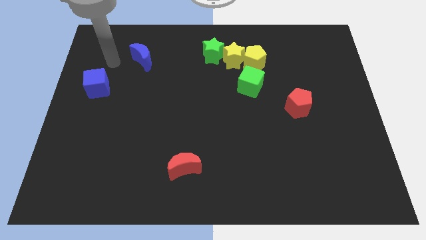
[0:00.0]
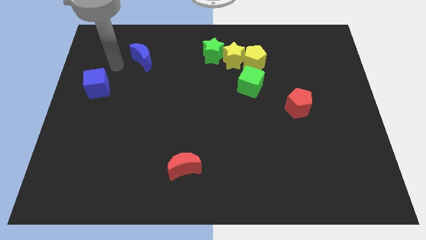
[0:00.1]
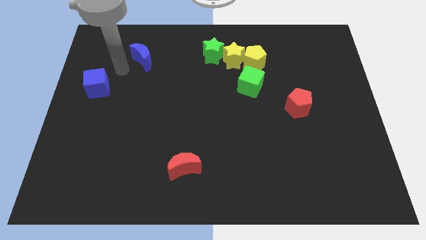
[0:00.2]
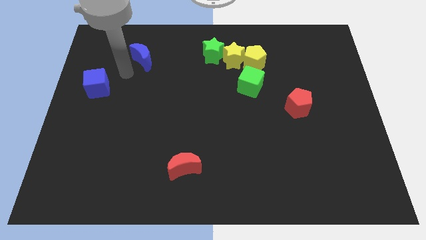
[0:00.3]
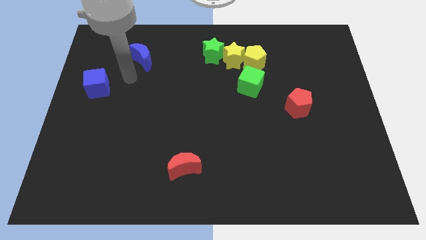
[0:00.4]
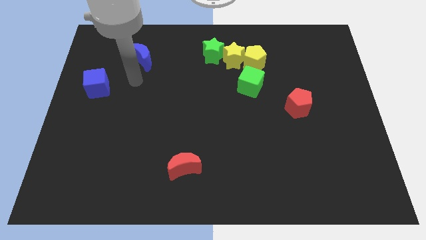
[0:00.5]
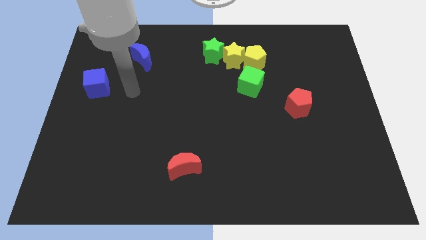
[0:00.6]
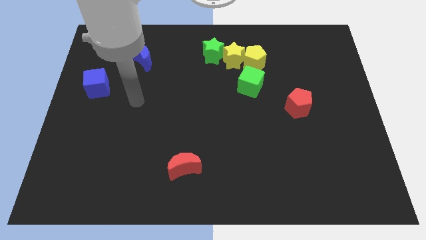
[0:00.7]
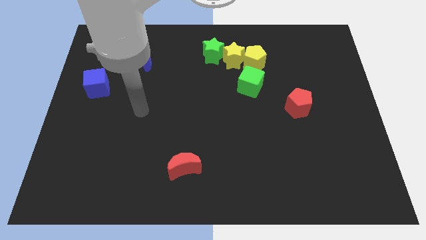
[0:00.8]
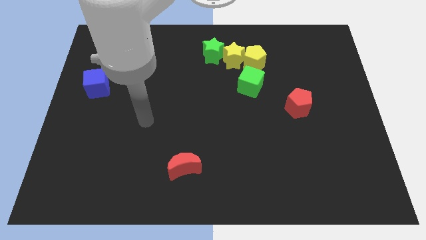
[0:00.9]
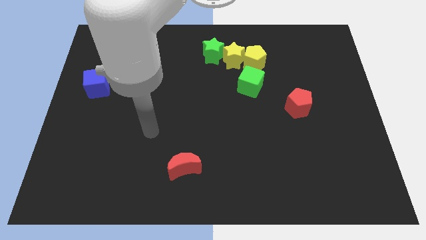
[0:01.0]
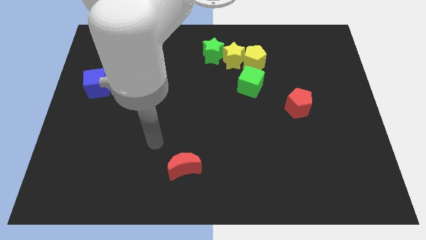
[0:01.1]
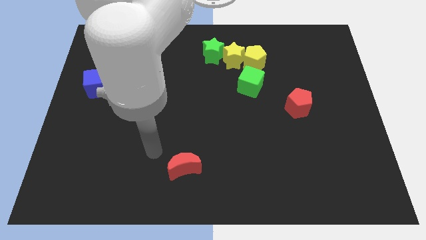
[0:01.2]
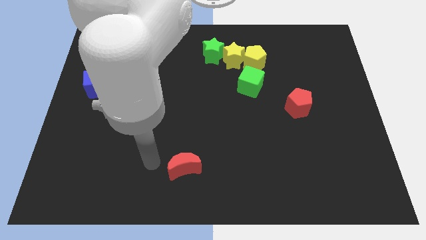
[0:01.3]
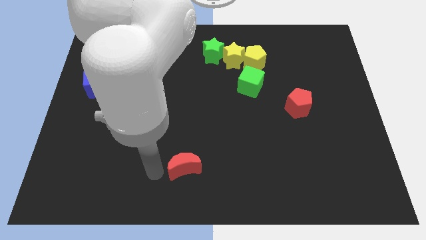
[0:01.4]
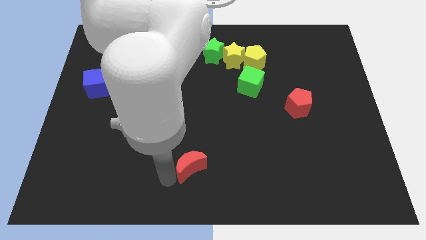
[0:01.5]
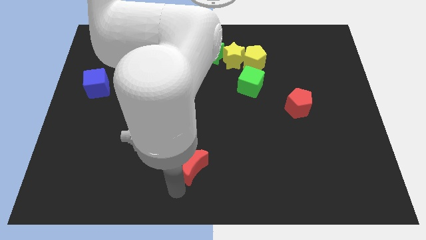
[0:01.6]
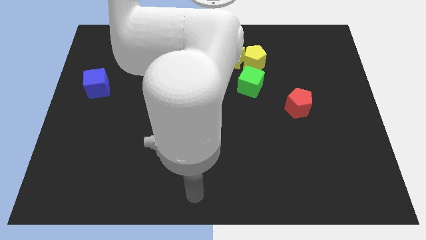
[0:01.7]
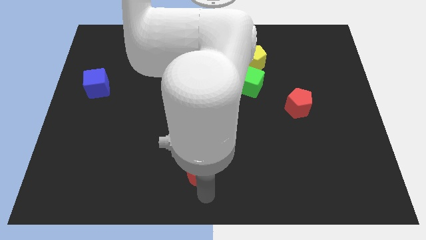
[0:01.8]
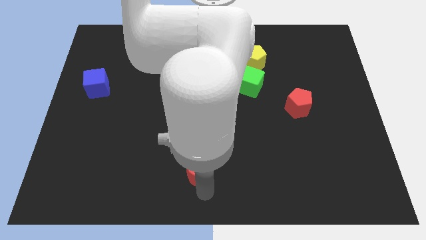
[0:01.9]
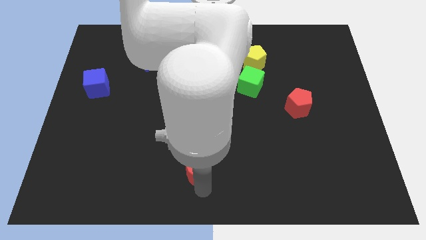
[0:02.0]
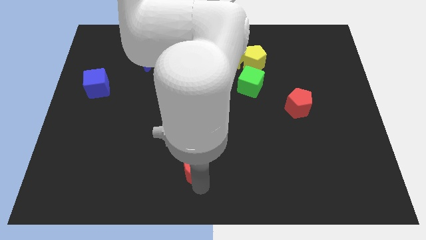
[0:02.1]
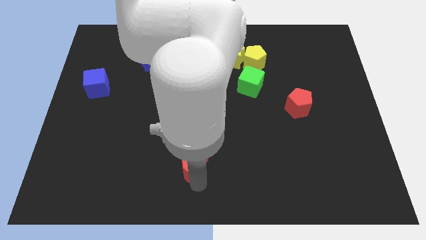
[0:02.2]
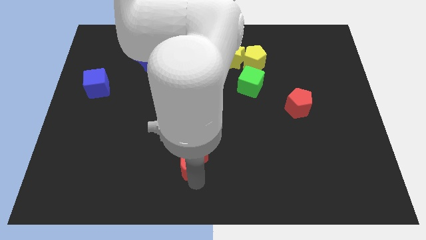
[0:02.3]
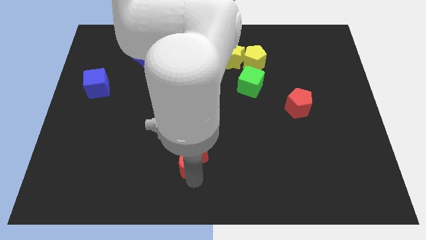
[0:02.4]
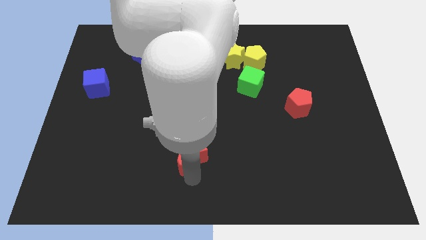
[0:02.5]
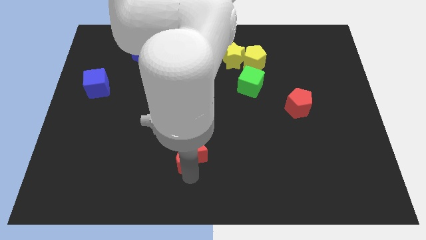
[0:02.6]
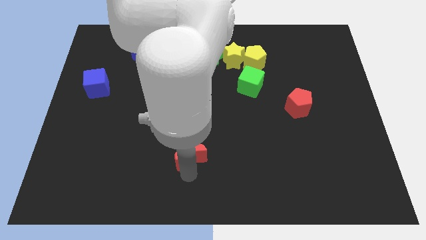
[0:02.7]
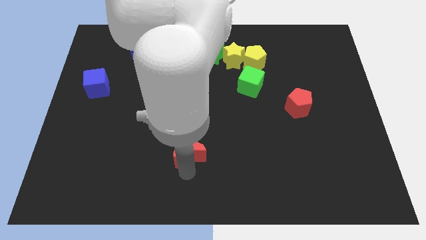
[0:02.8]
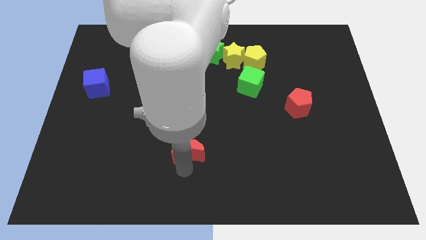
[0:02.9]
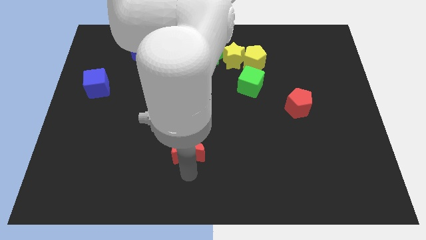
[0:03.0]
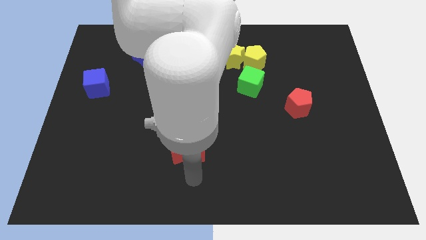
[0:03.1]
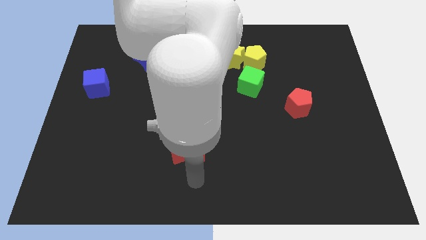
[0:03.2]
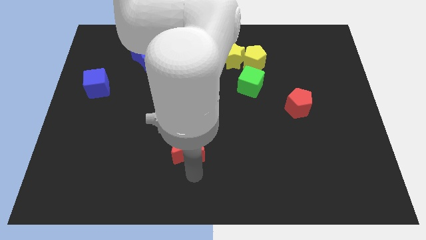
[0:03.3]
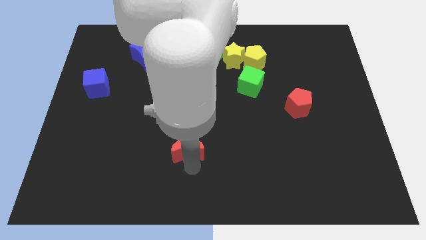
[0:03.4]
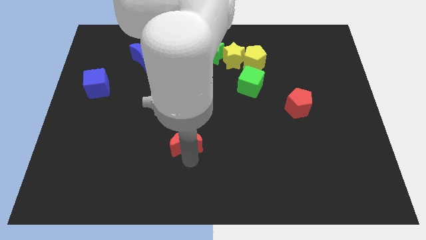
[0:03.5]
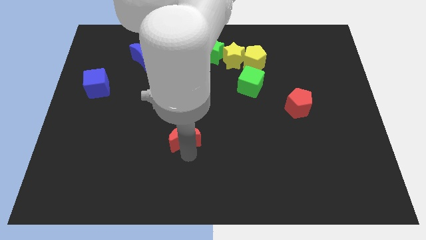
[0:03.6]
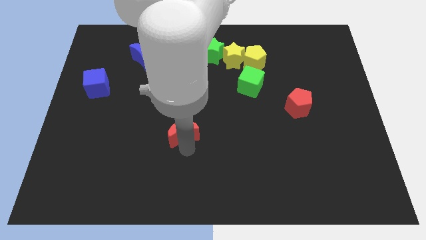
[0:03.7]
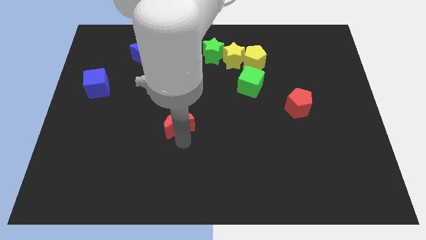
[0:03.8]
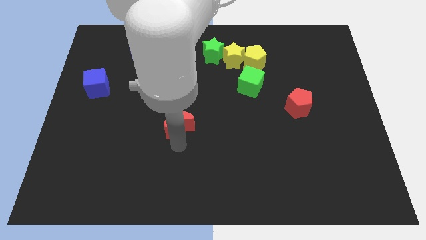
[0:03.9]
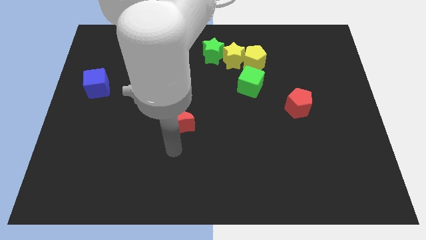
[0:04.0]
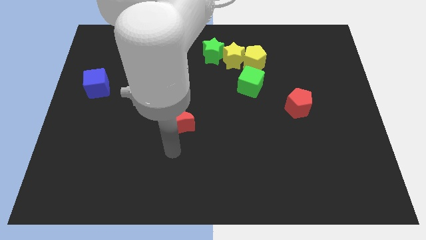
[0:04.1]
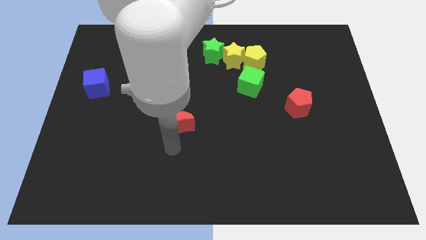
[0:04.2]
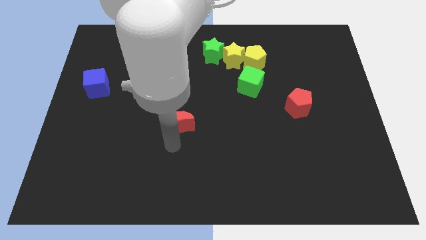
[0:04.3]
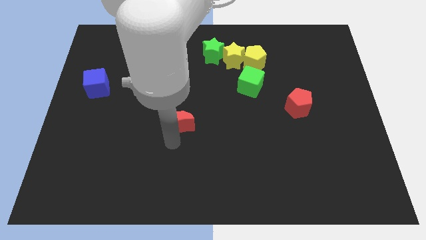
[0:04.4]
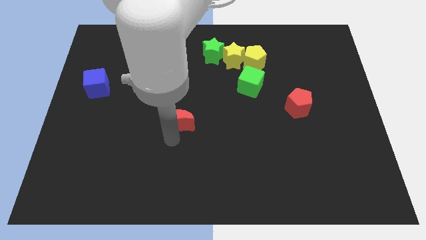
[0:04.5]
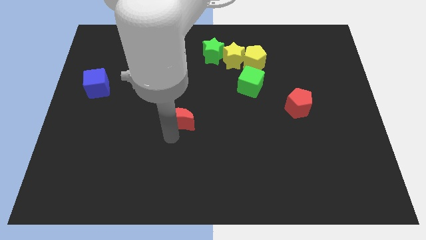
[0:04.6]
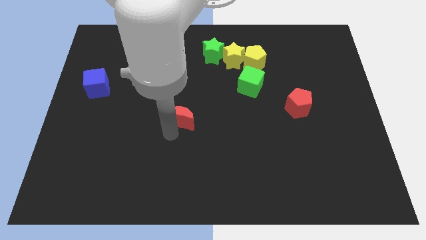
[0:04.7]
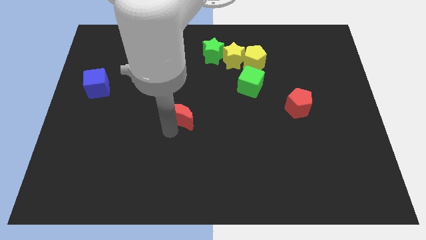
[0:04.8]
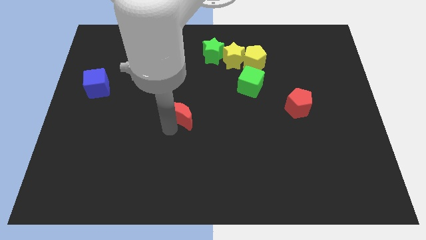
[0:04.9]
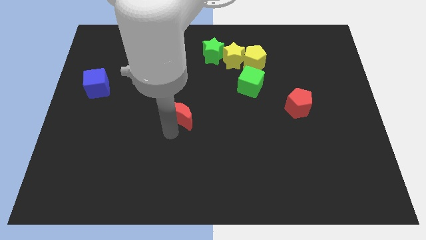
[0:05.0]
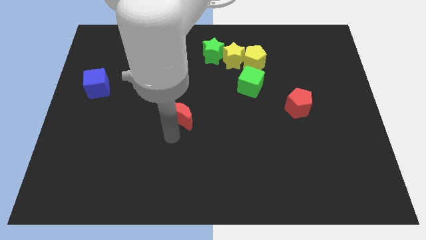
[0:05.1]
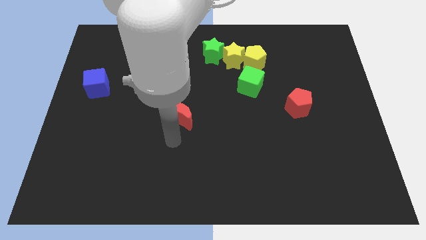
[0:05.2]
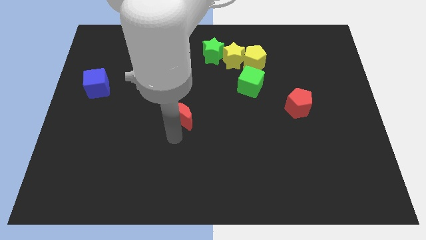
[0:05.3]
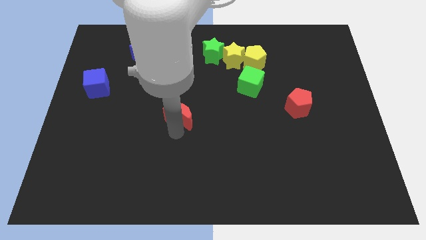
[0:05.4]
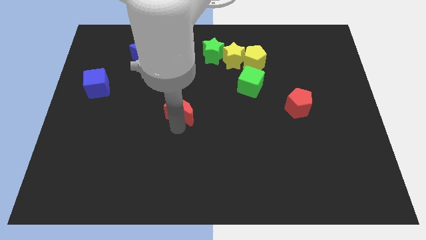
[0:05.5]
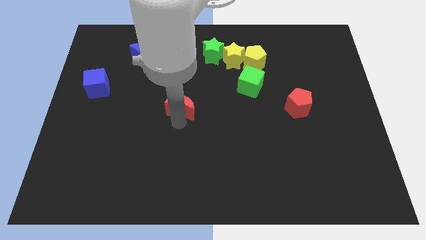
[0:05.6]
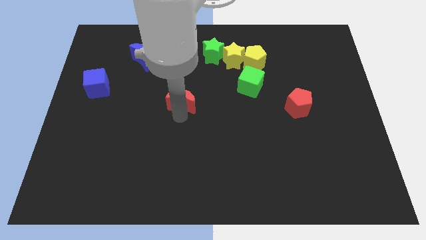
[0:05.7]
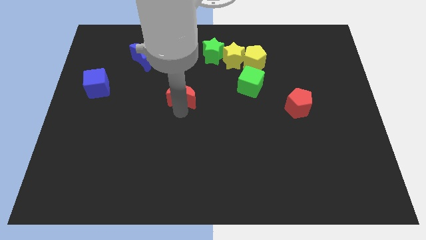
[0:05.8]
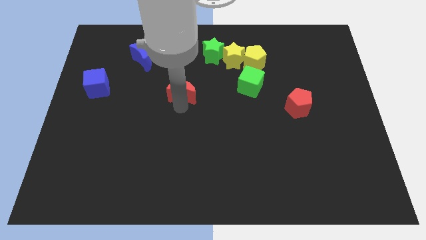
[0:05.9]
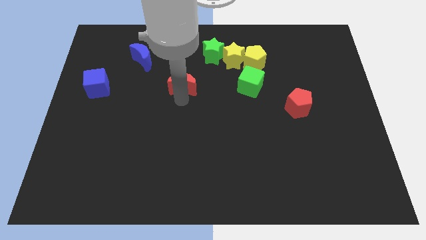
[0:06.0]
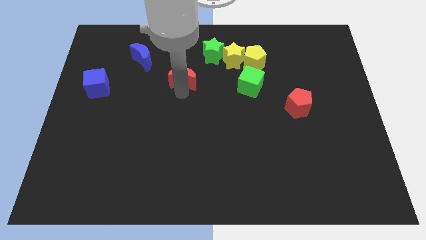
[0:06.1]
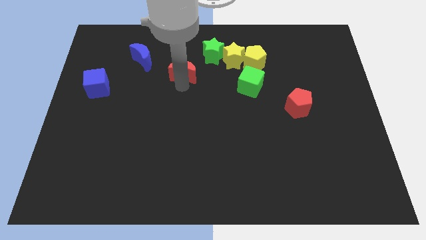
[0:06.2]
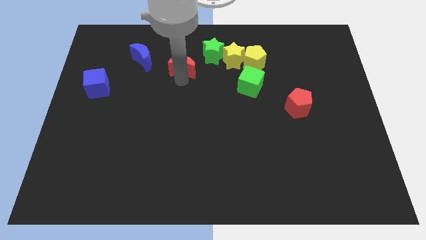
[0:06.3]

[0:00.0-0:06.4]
slide the red moon left of the yellow star

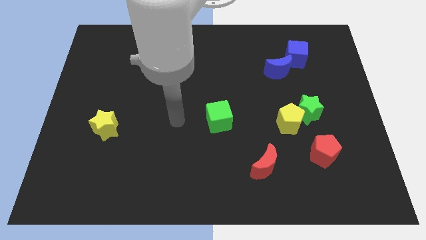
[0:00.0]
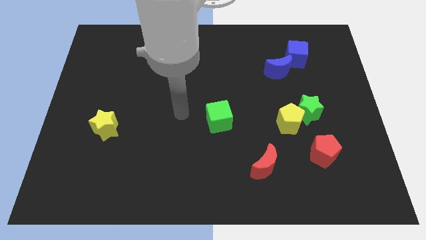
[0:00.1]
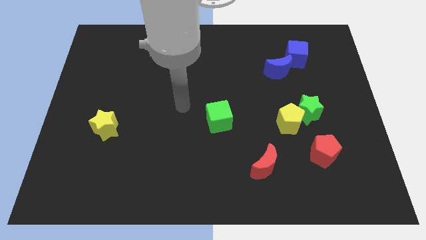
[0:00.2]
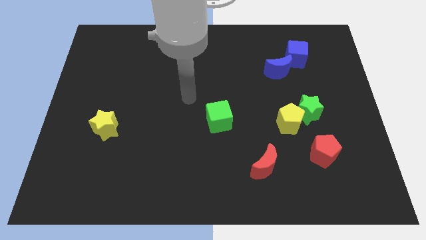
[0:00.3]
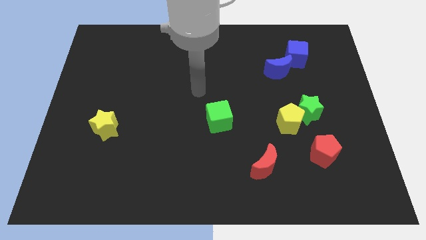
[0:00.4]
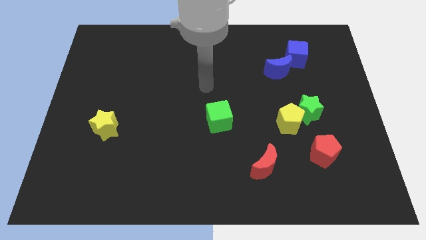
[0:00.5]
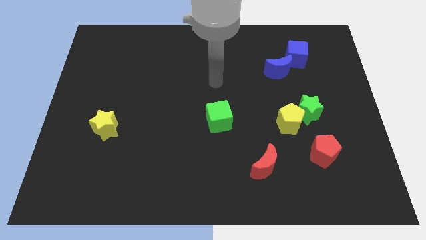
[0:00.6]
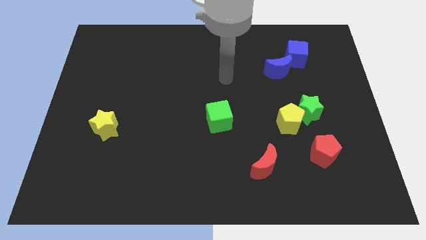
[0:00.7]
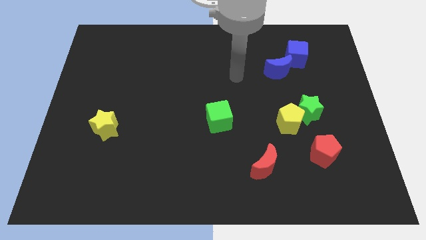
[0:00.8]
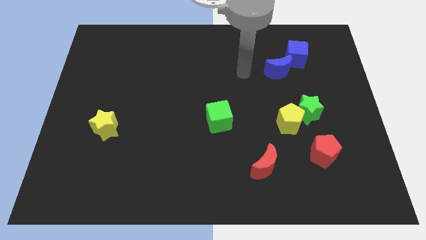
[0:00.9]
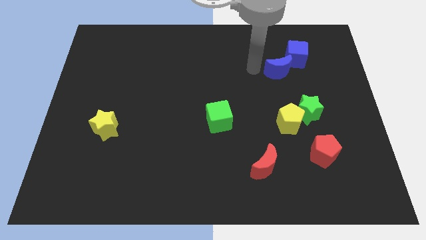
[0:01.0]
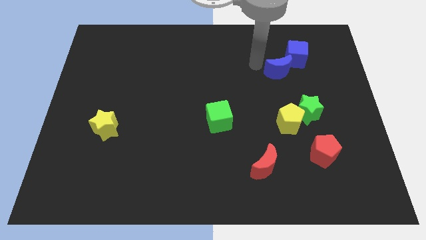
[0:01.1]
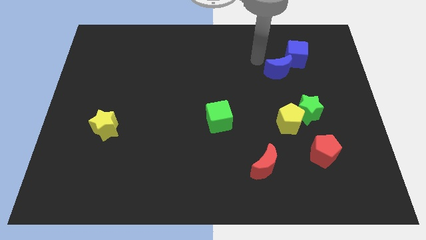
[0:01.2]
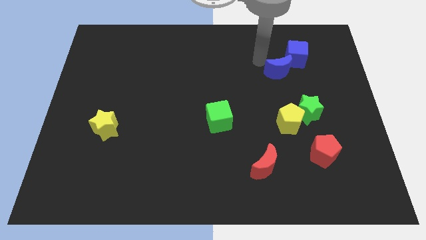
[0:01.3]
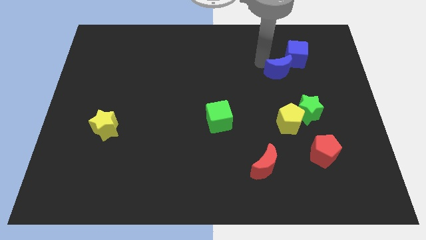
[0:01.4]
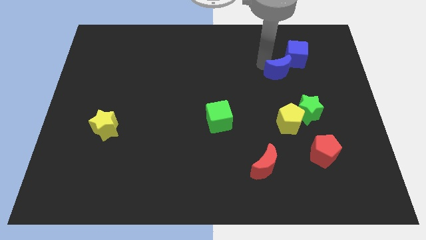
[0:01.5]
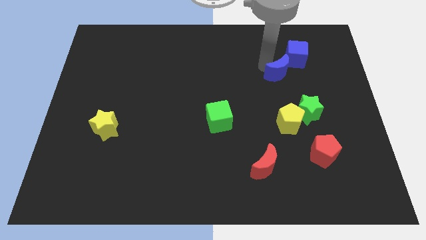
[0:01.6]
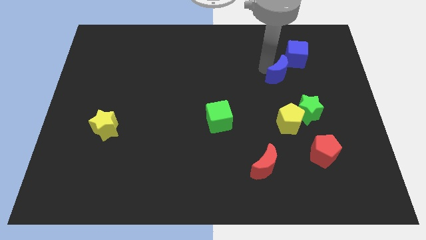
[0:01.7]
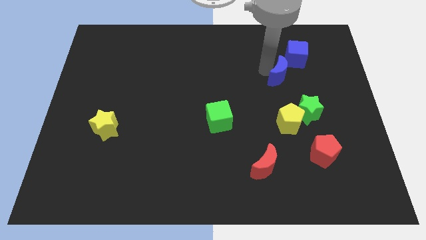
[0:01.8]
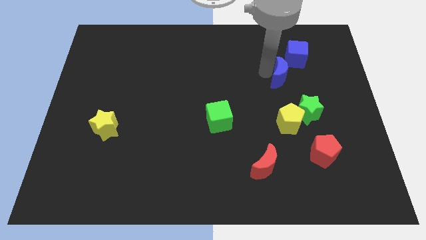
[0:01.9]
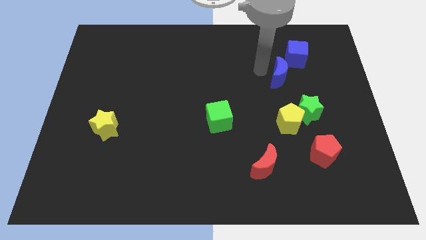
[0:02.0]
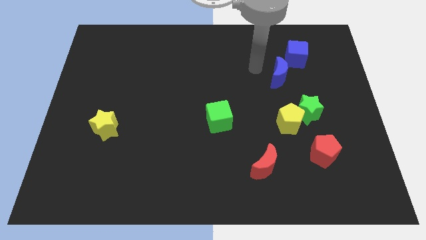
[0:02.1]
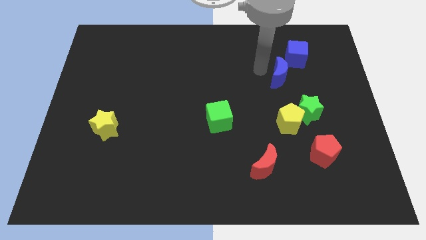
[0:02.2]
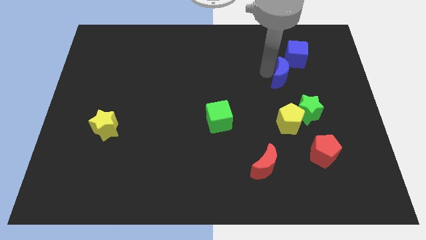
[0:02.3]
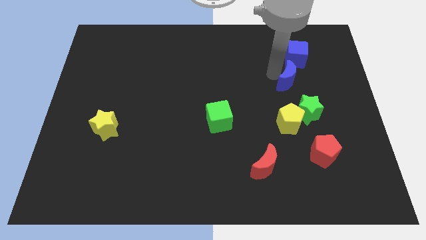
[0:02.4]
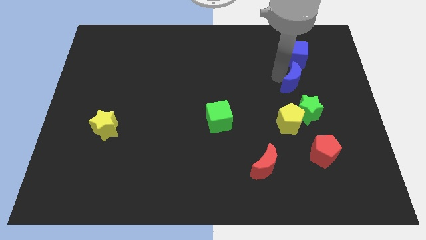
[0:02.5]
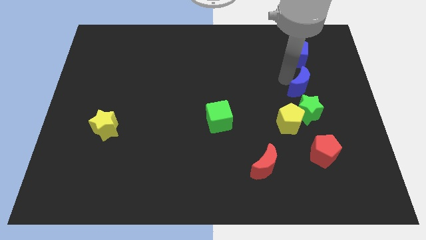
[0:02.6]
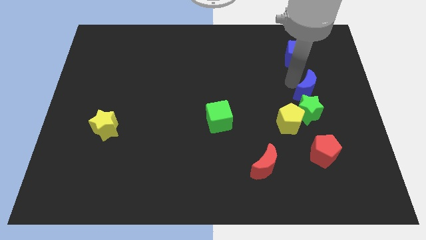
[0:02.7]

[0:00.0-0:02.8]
push the blue moon to the top right side of the green star
